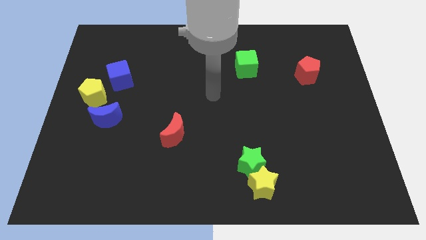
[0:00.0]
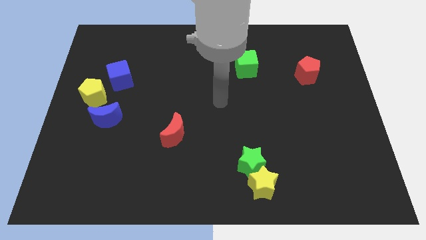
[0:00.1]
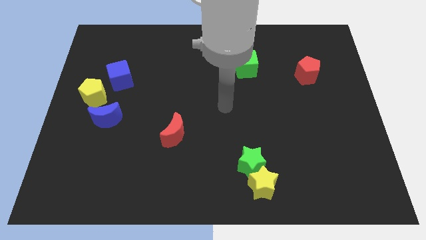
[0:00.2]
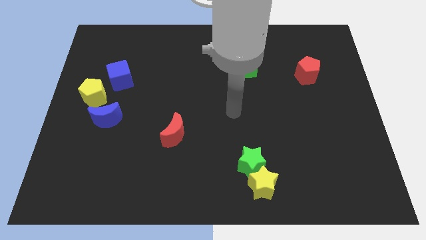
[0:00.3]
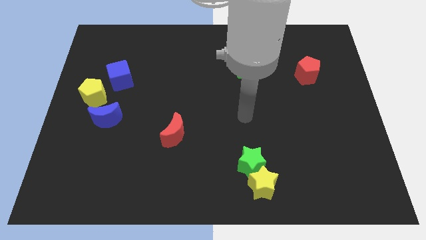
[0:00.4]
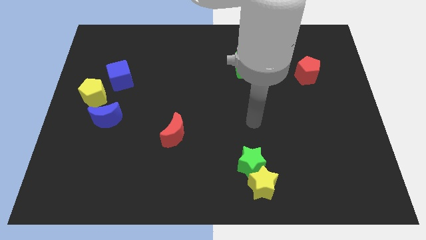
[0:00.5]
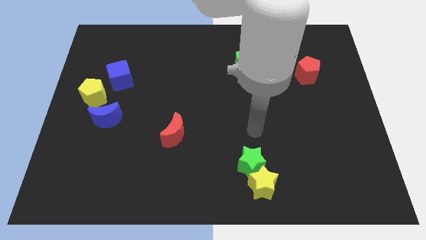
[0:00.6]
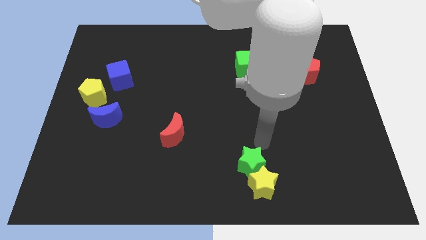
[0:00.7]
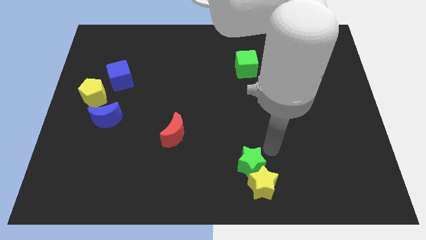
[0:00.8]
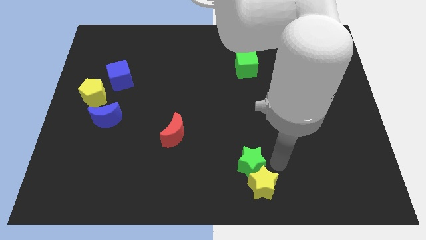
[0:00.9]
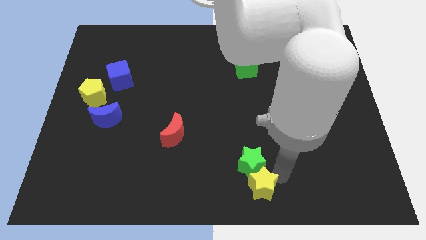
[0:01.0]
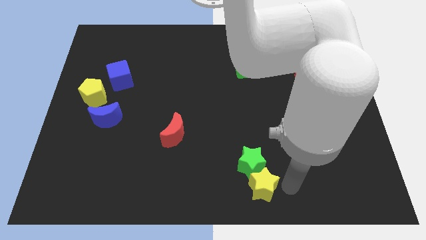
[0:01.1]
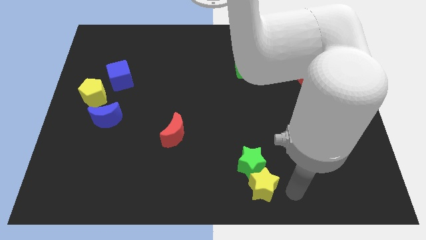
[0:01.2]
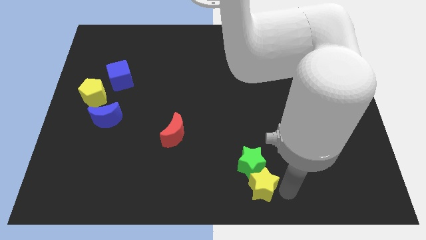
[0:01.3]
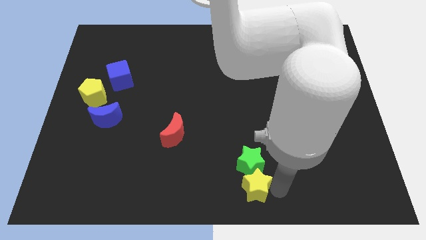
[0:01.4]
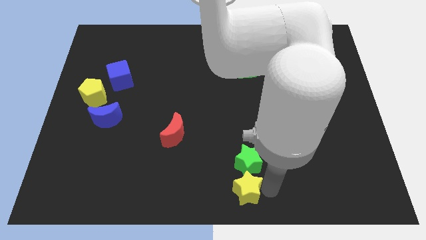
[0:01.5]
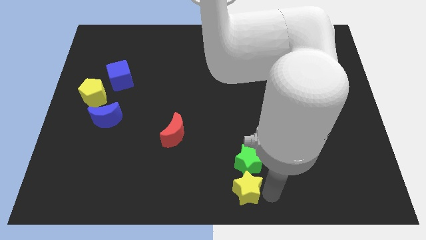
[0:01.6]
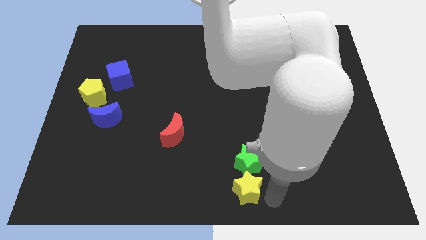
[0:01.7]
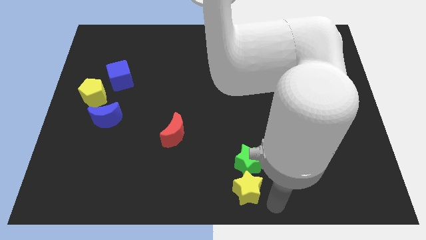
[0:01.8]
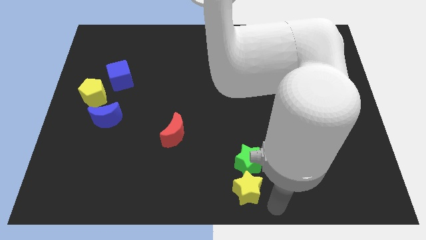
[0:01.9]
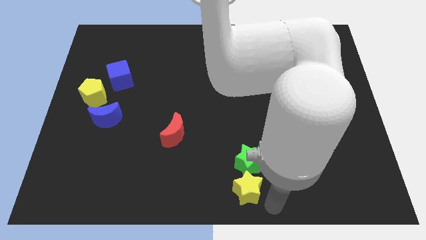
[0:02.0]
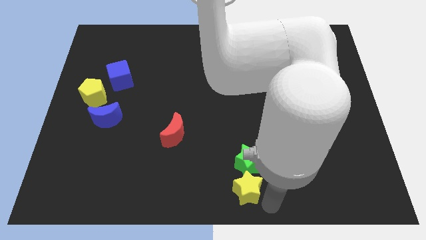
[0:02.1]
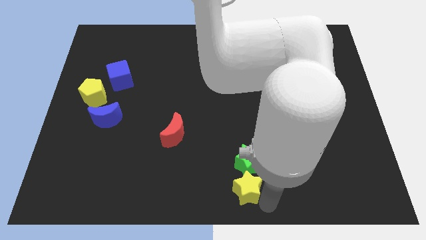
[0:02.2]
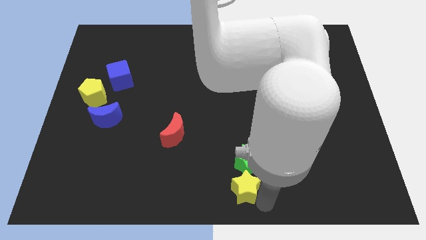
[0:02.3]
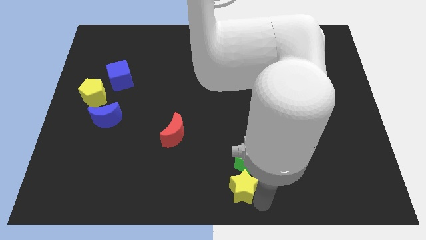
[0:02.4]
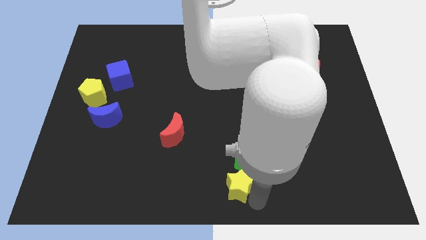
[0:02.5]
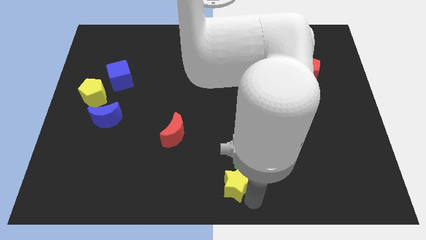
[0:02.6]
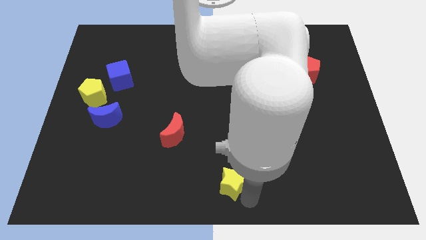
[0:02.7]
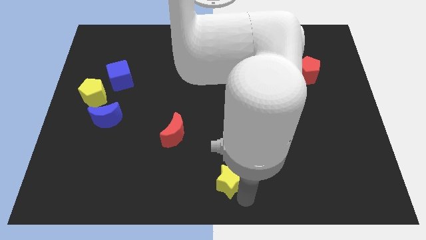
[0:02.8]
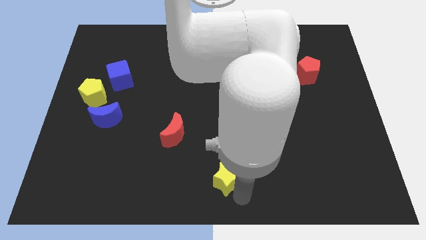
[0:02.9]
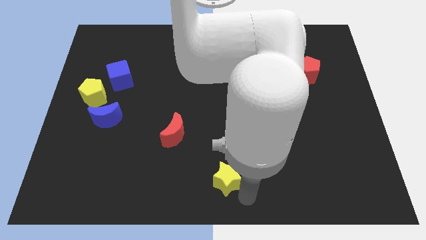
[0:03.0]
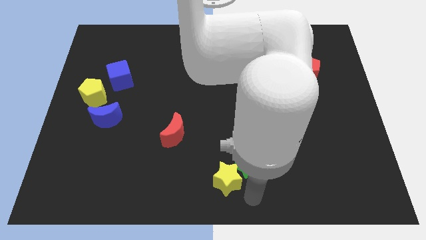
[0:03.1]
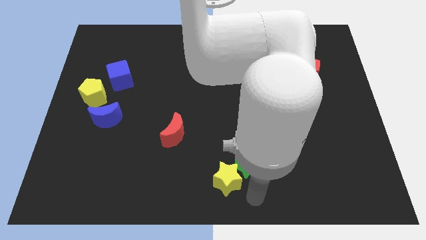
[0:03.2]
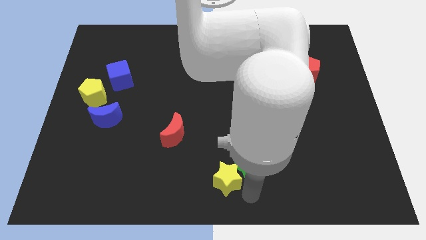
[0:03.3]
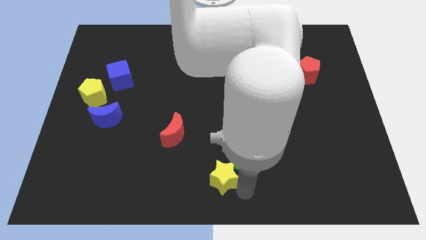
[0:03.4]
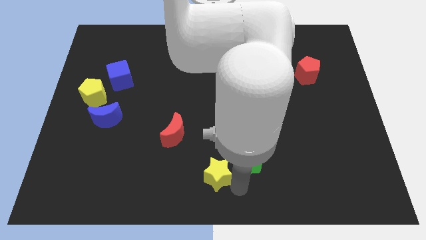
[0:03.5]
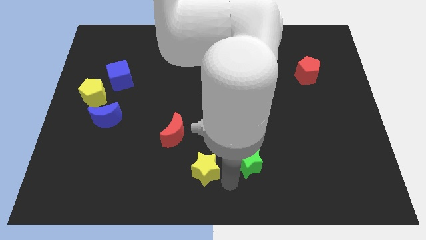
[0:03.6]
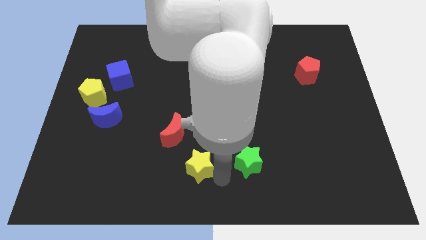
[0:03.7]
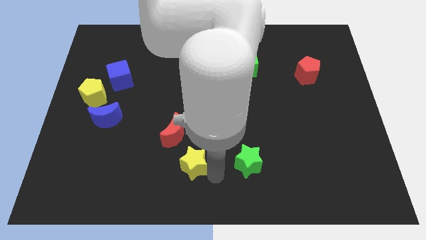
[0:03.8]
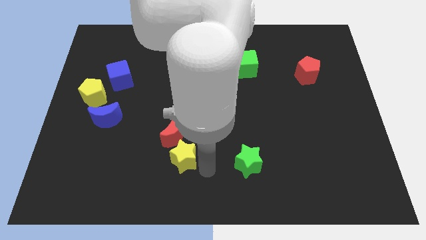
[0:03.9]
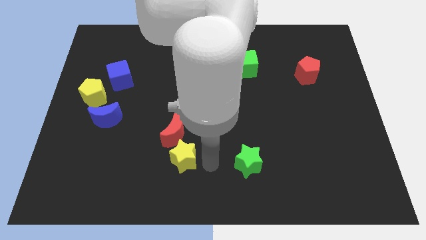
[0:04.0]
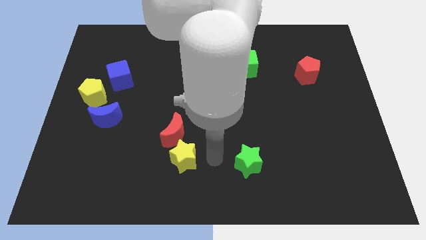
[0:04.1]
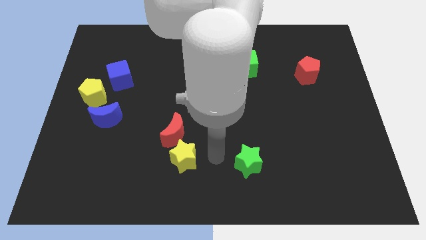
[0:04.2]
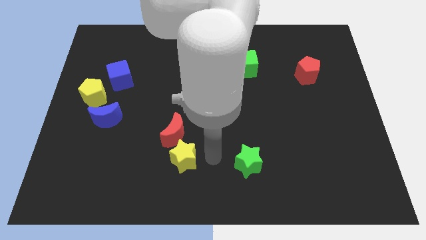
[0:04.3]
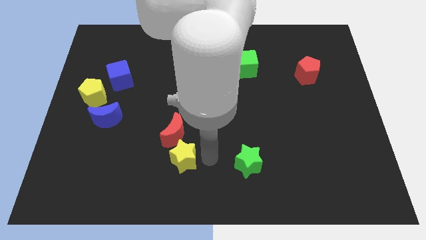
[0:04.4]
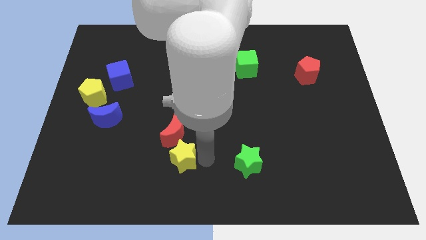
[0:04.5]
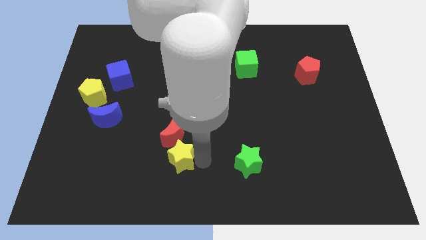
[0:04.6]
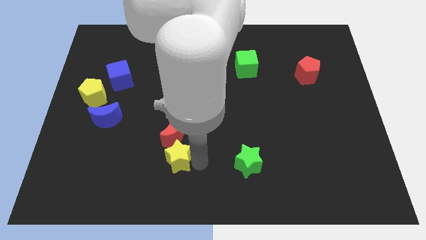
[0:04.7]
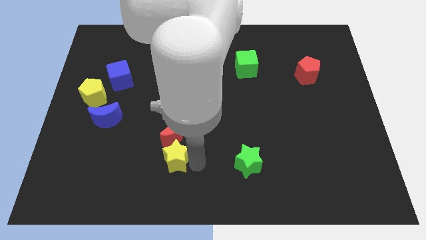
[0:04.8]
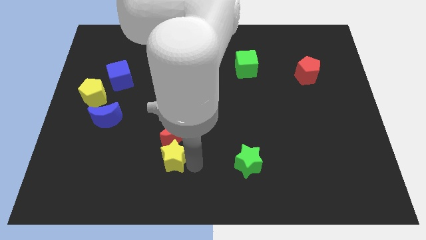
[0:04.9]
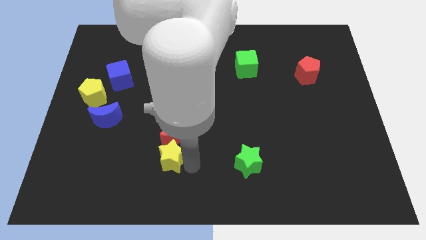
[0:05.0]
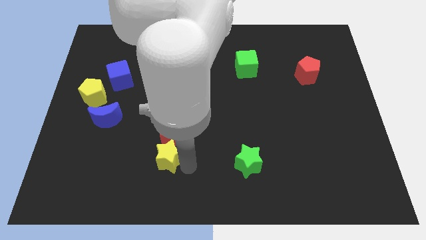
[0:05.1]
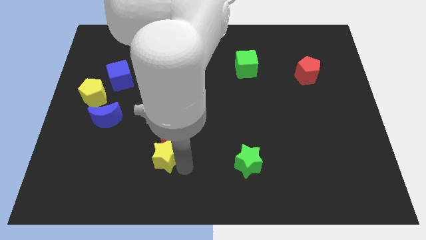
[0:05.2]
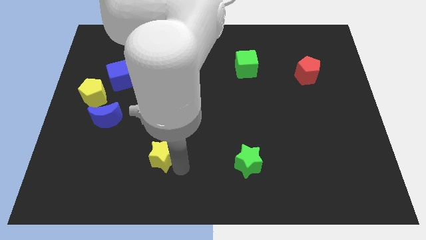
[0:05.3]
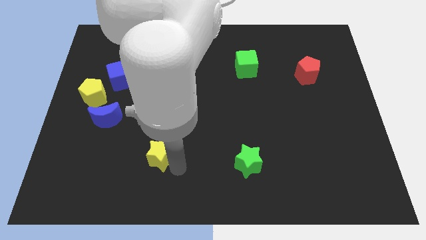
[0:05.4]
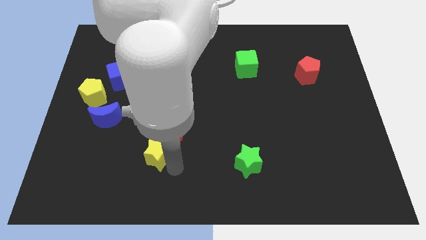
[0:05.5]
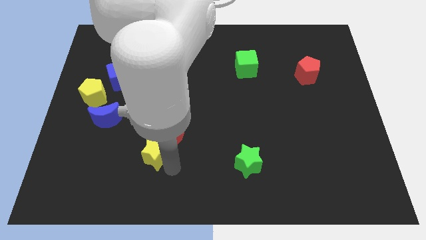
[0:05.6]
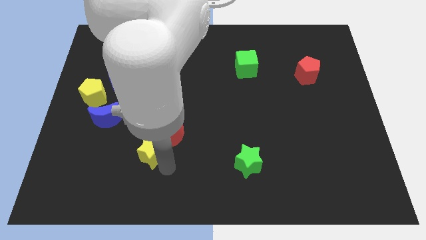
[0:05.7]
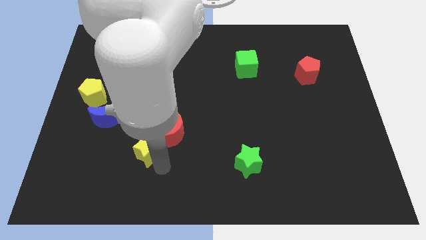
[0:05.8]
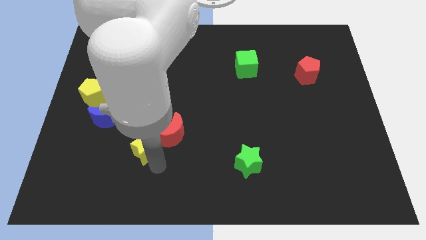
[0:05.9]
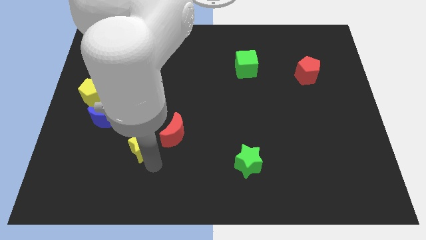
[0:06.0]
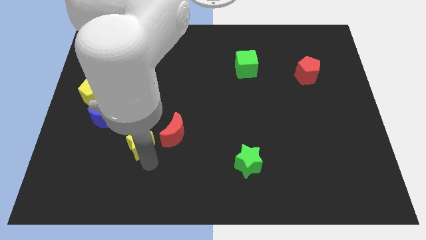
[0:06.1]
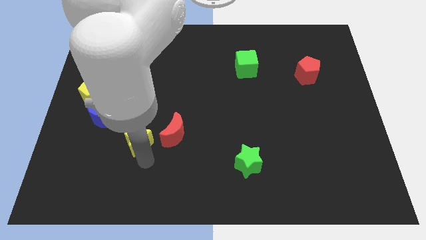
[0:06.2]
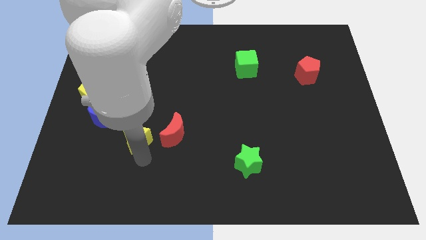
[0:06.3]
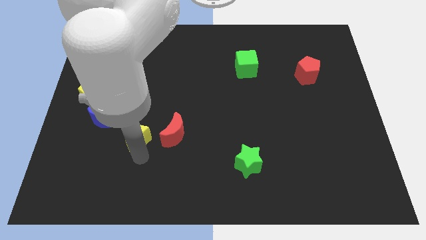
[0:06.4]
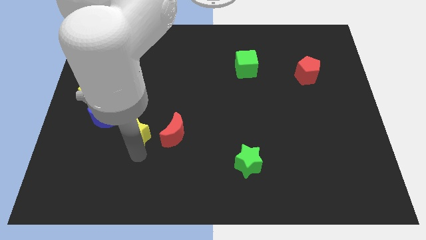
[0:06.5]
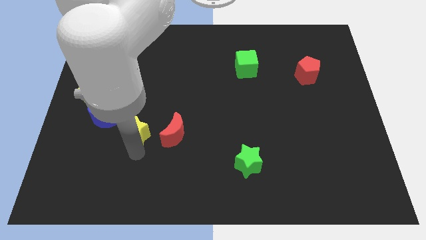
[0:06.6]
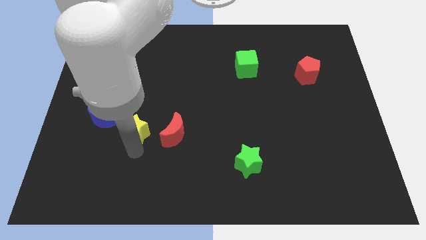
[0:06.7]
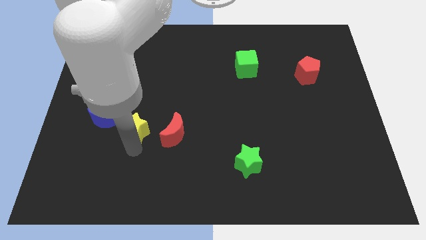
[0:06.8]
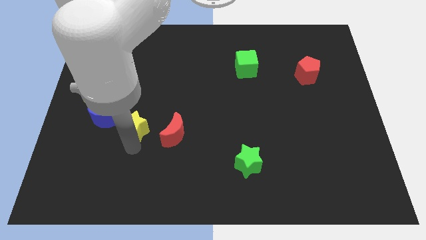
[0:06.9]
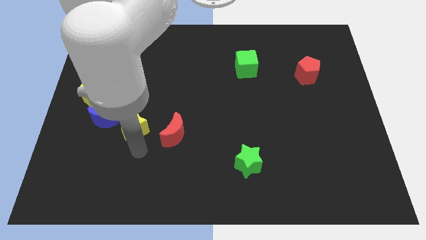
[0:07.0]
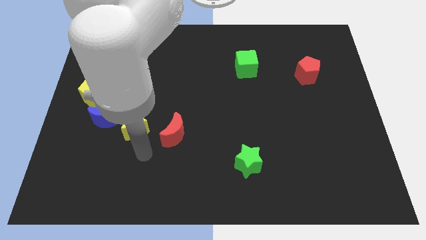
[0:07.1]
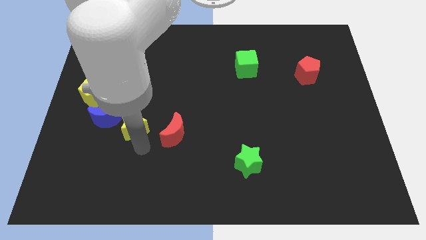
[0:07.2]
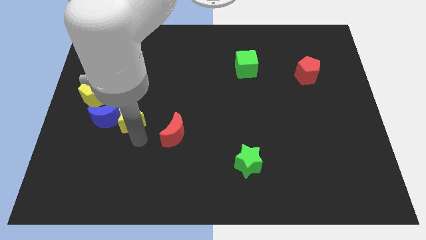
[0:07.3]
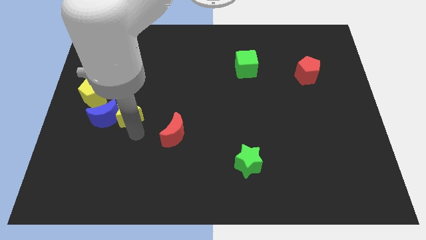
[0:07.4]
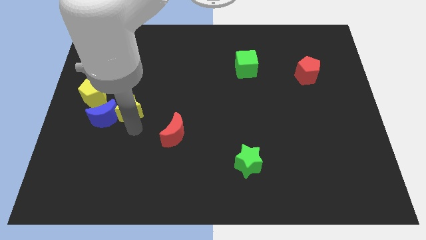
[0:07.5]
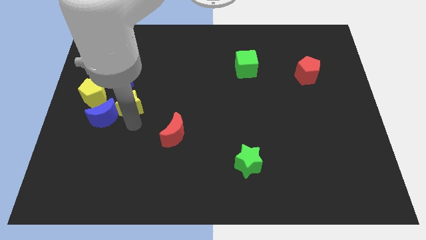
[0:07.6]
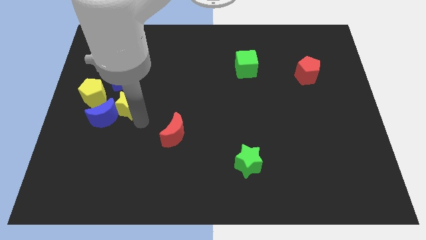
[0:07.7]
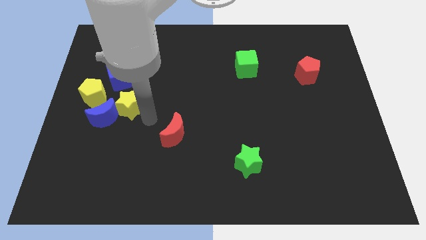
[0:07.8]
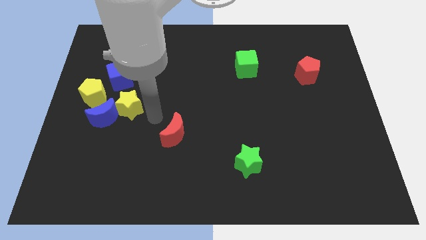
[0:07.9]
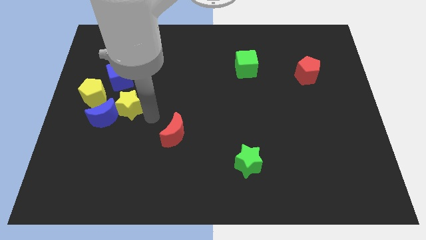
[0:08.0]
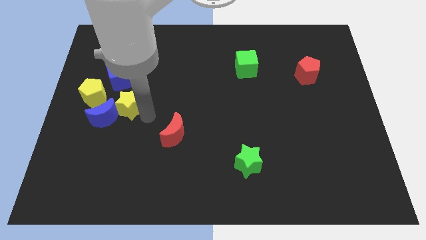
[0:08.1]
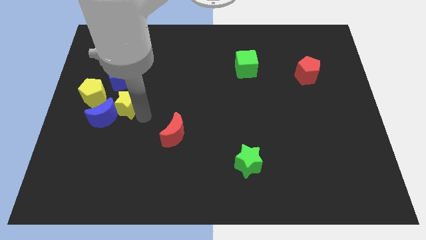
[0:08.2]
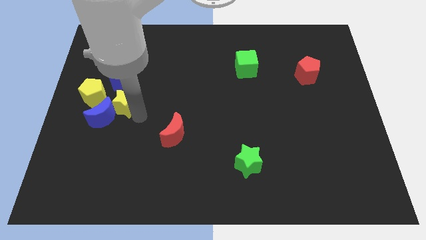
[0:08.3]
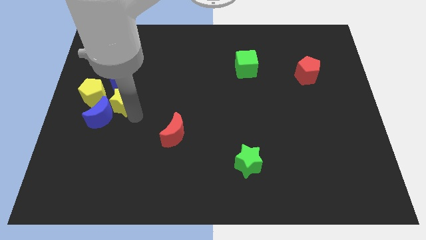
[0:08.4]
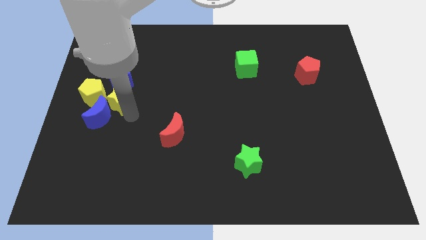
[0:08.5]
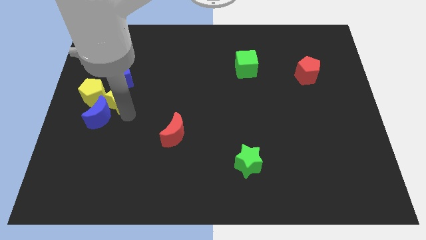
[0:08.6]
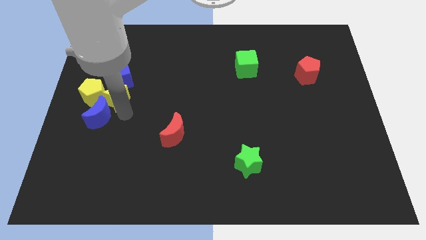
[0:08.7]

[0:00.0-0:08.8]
move the yellow star towards the yellow pentagon
